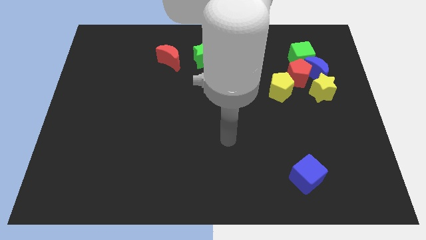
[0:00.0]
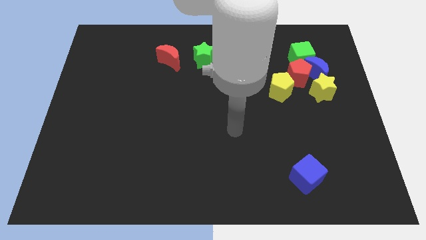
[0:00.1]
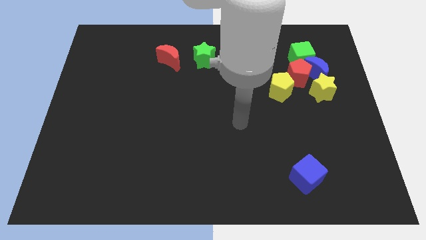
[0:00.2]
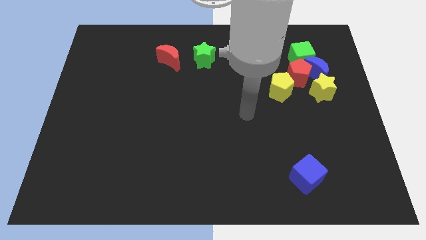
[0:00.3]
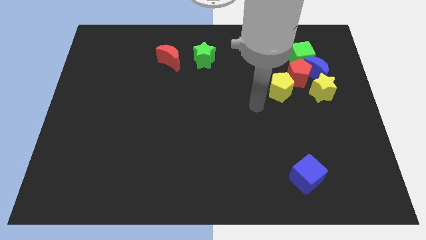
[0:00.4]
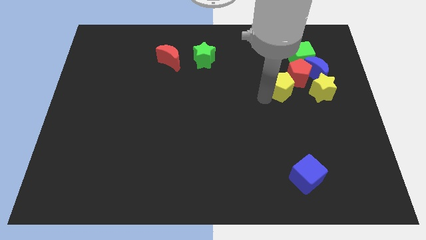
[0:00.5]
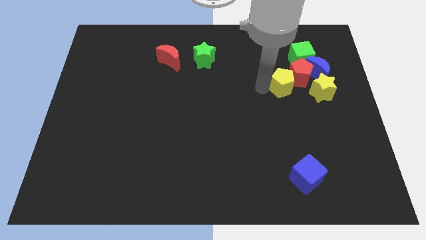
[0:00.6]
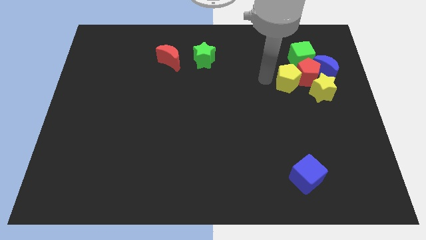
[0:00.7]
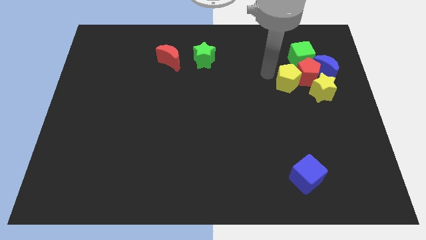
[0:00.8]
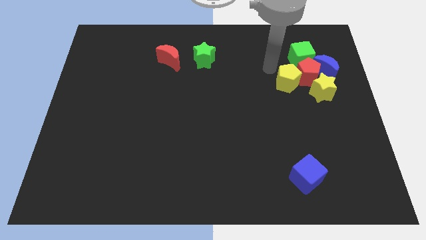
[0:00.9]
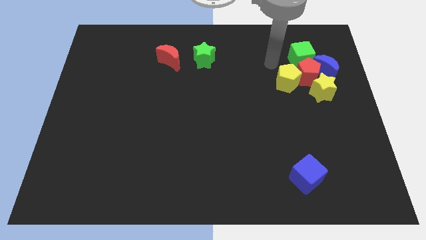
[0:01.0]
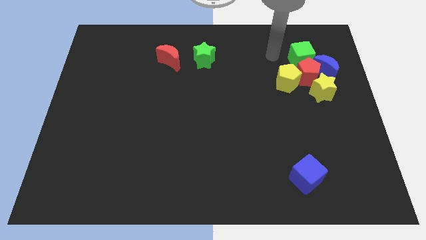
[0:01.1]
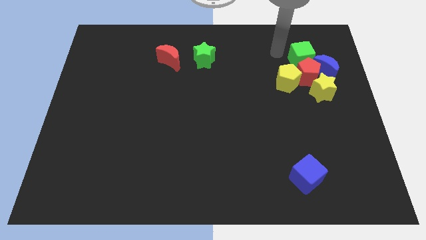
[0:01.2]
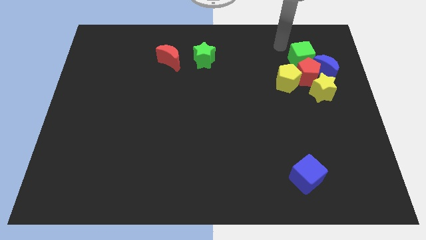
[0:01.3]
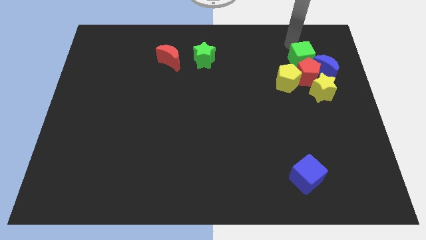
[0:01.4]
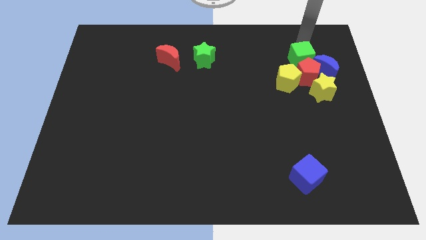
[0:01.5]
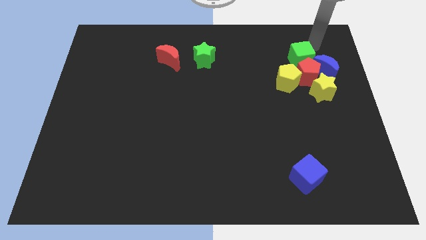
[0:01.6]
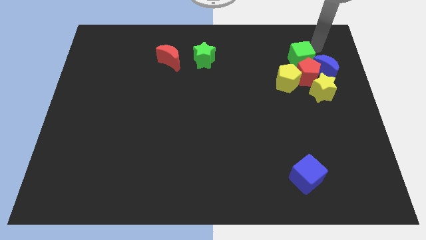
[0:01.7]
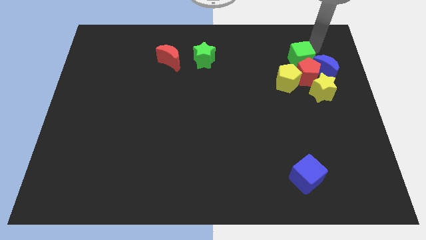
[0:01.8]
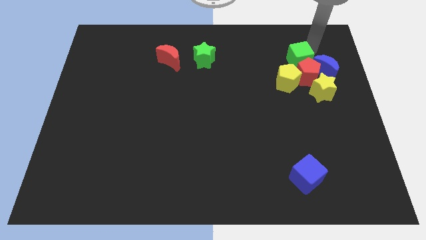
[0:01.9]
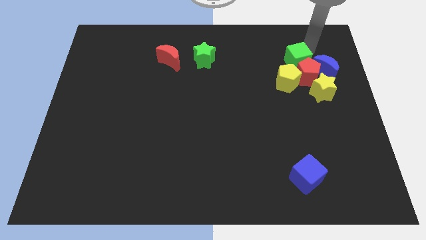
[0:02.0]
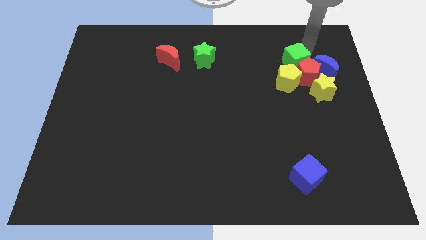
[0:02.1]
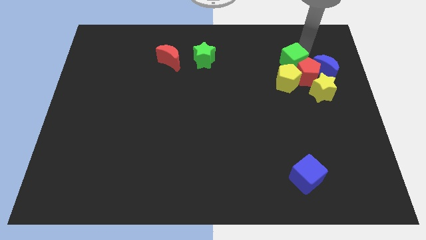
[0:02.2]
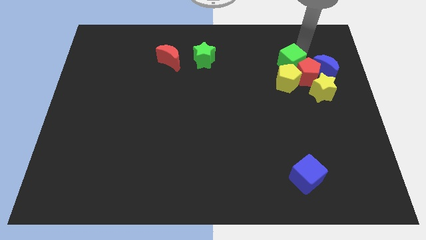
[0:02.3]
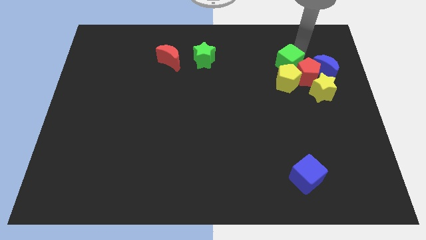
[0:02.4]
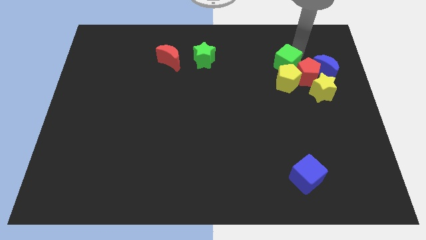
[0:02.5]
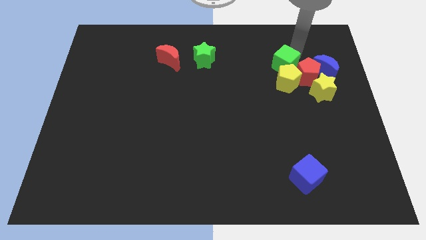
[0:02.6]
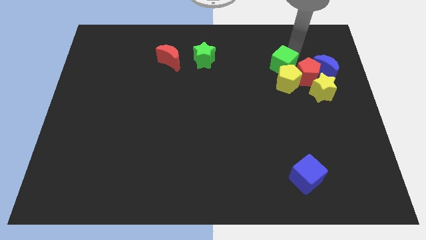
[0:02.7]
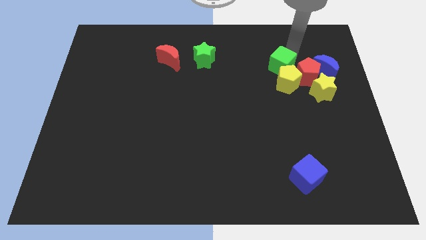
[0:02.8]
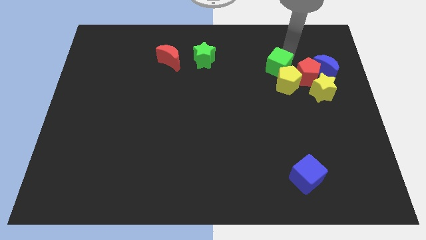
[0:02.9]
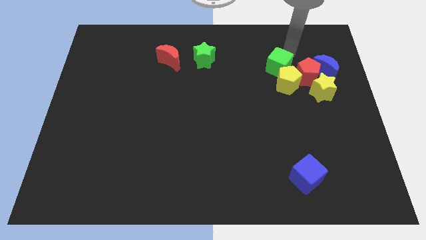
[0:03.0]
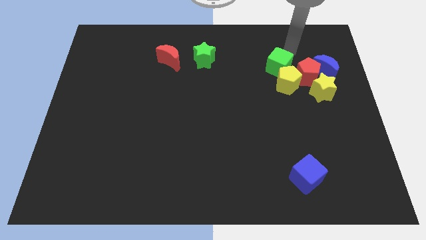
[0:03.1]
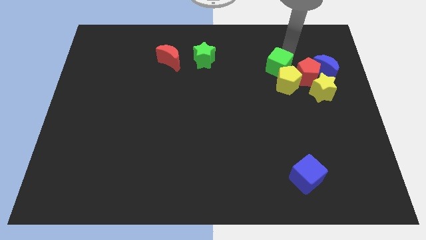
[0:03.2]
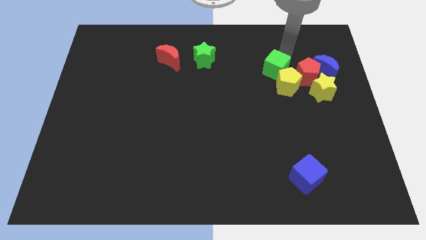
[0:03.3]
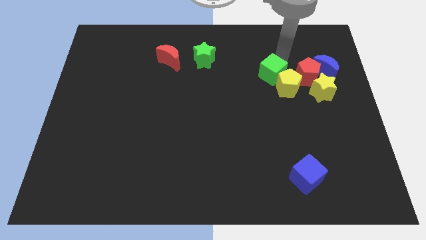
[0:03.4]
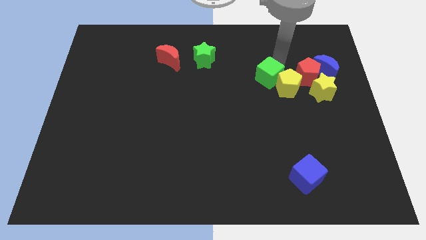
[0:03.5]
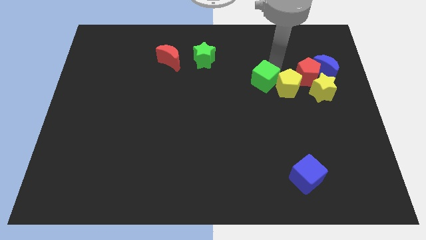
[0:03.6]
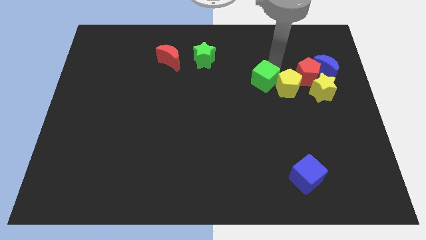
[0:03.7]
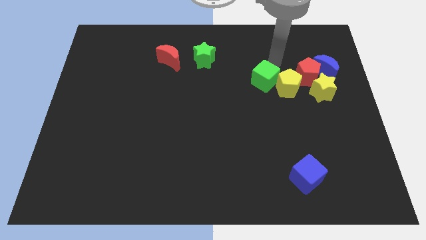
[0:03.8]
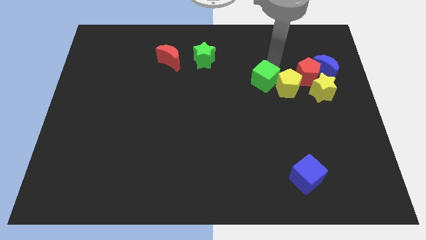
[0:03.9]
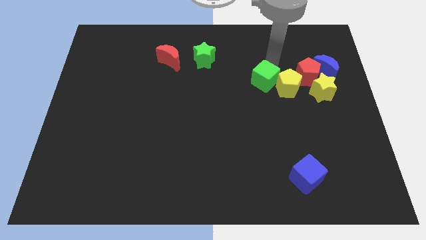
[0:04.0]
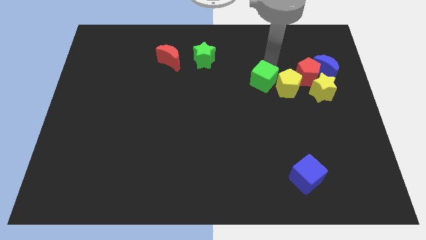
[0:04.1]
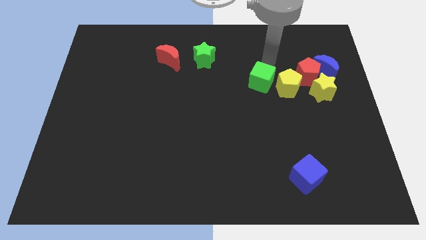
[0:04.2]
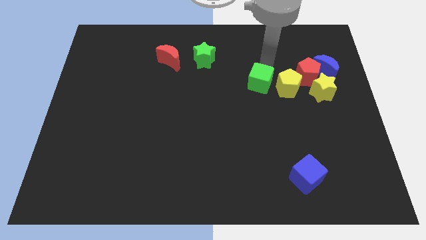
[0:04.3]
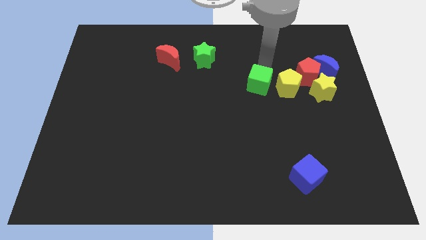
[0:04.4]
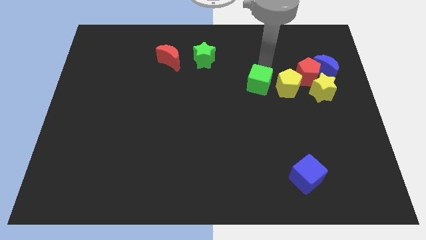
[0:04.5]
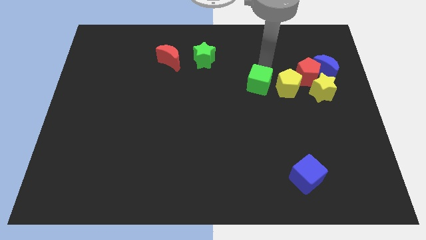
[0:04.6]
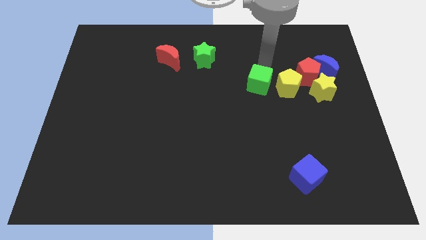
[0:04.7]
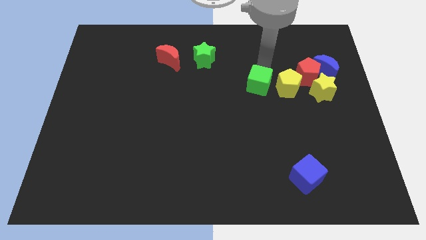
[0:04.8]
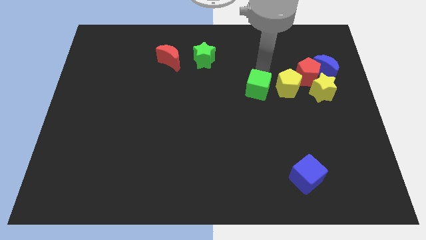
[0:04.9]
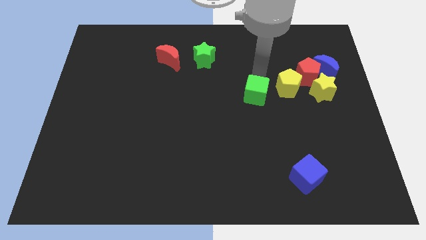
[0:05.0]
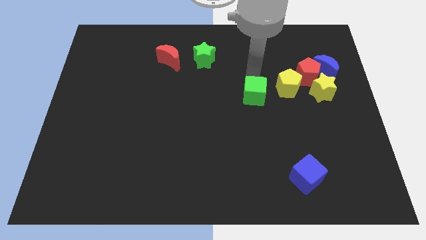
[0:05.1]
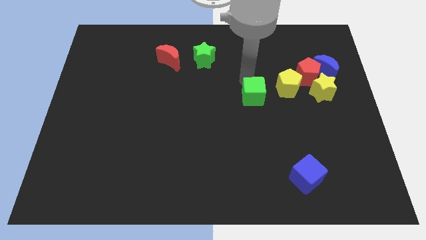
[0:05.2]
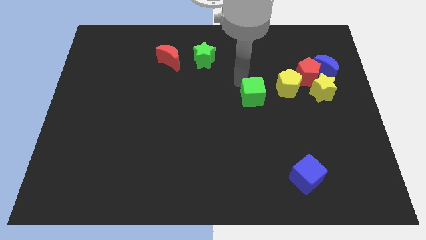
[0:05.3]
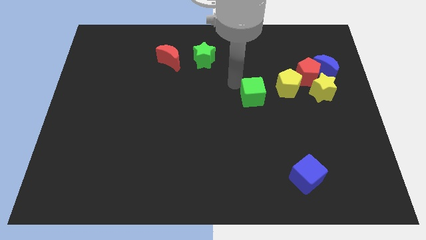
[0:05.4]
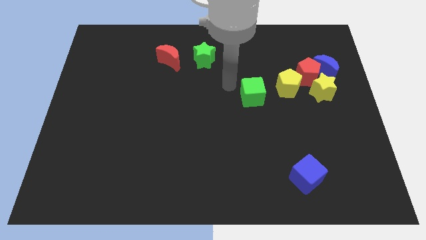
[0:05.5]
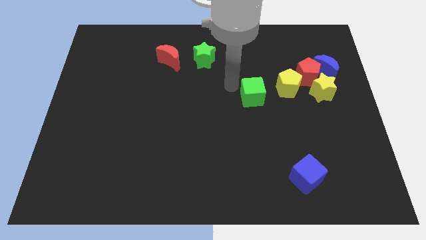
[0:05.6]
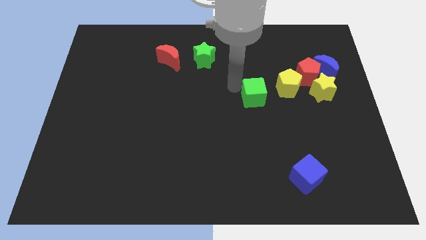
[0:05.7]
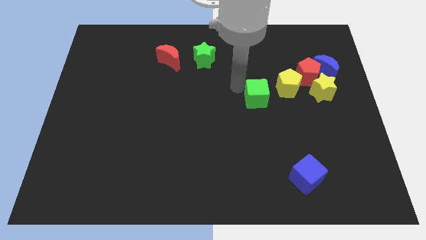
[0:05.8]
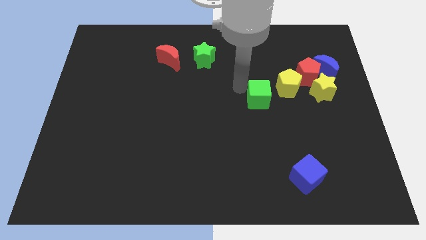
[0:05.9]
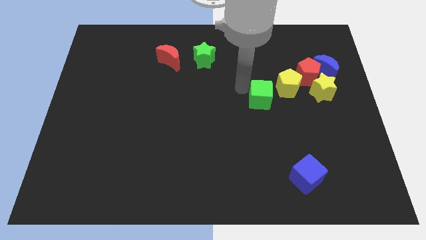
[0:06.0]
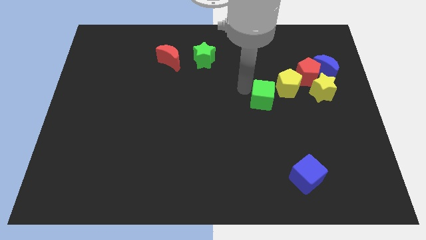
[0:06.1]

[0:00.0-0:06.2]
push the green cube downwards slightly

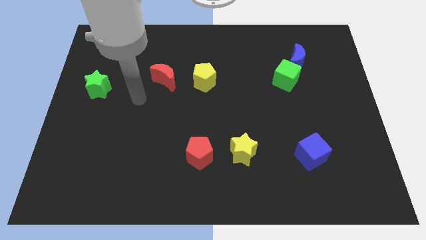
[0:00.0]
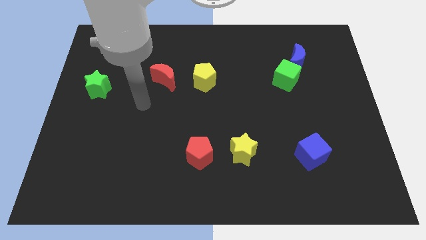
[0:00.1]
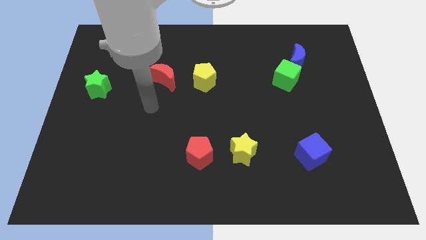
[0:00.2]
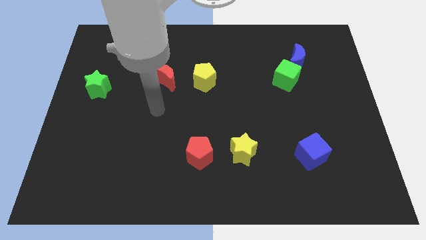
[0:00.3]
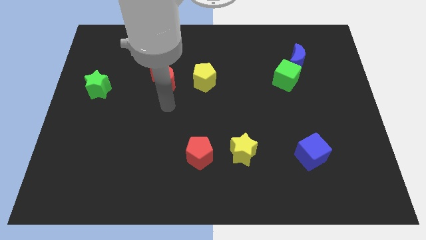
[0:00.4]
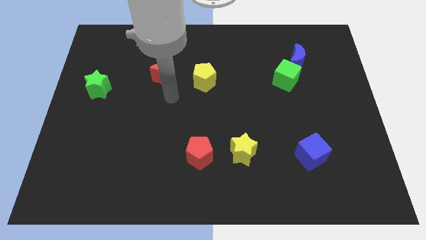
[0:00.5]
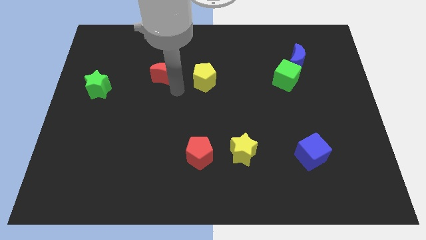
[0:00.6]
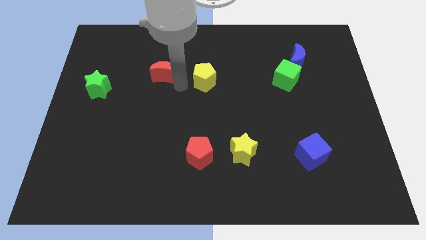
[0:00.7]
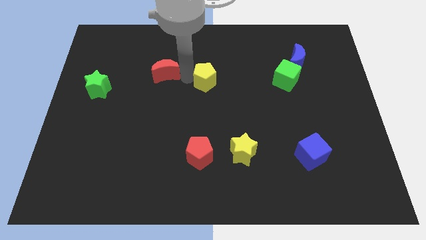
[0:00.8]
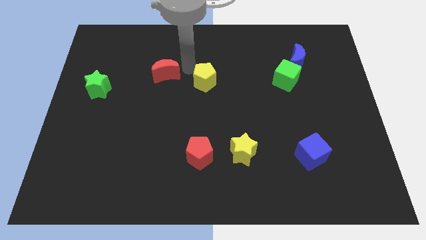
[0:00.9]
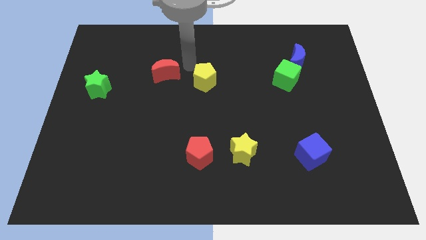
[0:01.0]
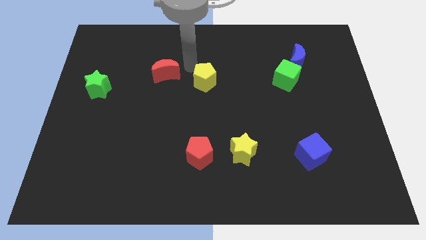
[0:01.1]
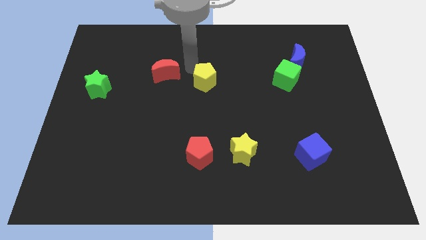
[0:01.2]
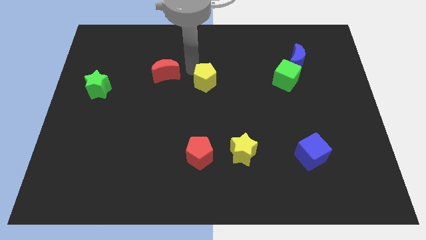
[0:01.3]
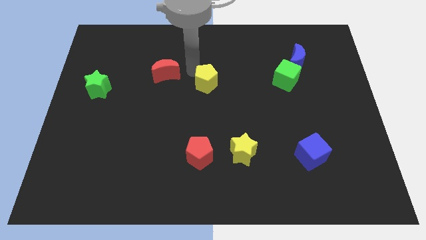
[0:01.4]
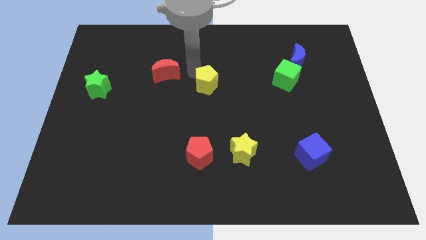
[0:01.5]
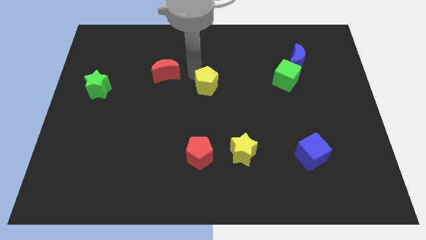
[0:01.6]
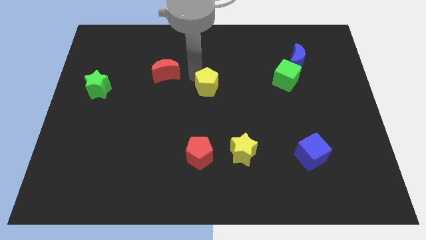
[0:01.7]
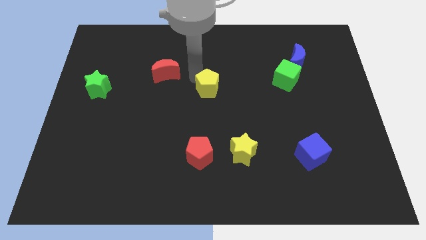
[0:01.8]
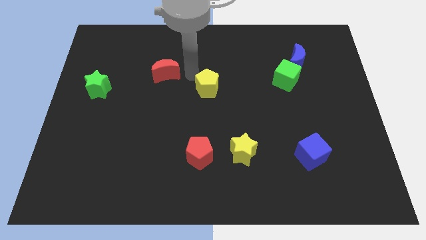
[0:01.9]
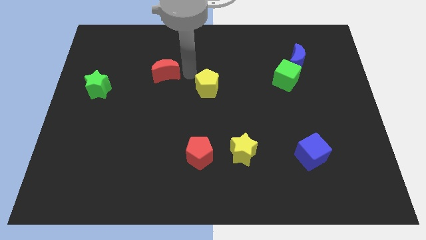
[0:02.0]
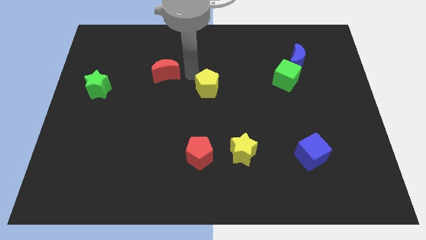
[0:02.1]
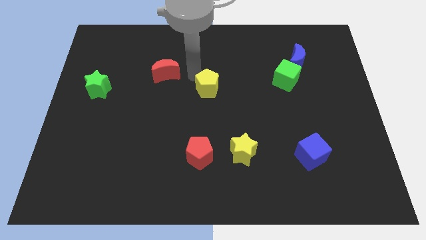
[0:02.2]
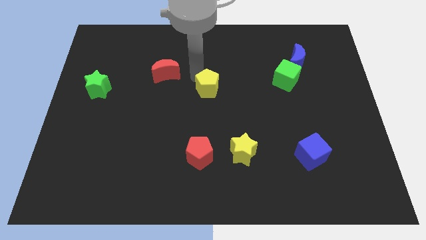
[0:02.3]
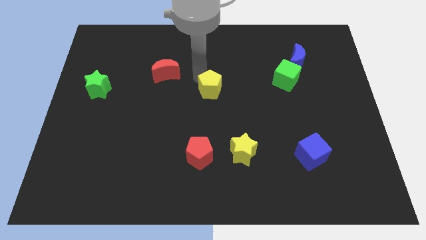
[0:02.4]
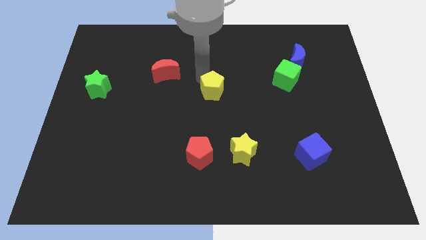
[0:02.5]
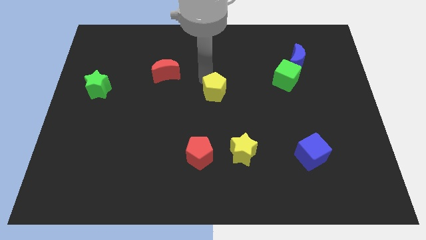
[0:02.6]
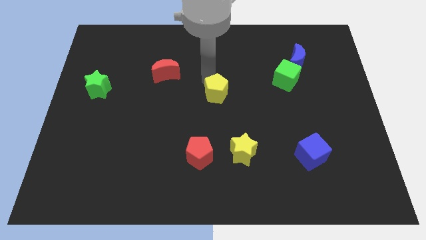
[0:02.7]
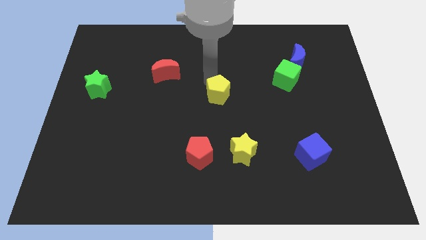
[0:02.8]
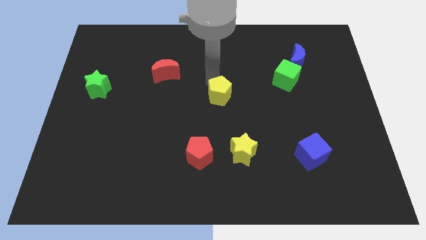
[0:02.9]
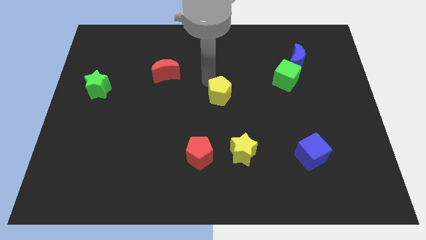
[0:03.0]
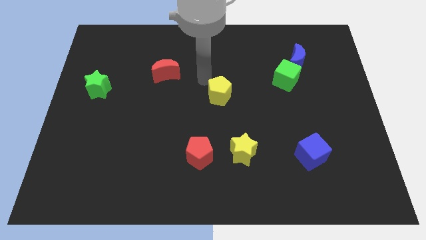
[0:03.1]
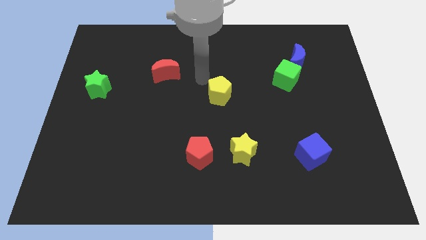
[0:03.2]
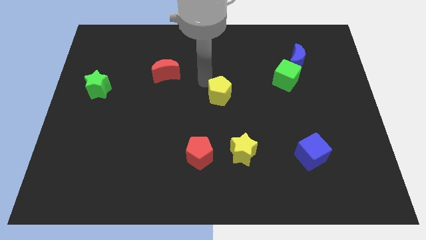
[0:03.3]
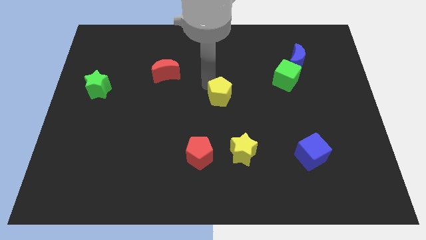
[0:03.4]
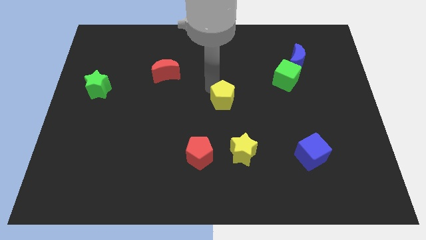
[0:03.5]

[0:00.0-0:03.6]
move the yellow pentagon diagonally down and right somewhat
